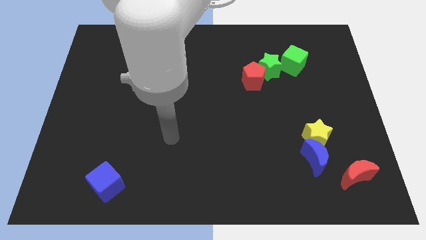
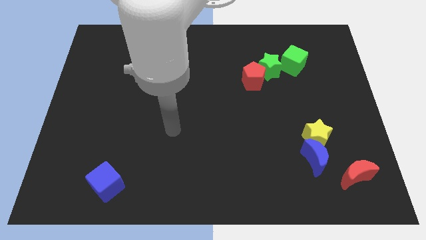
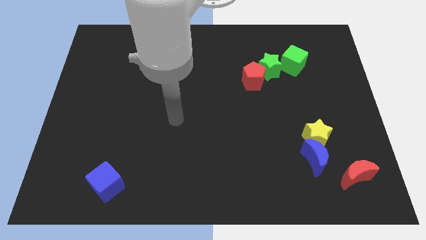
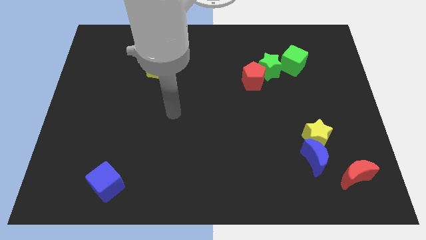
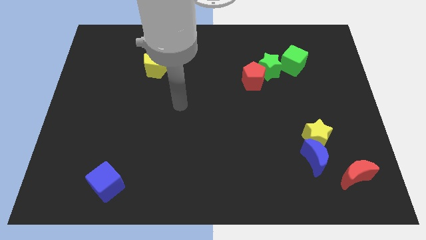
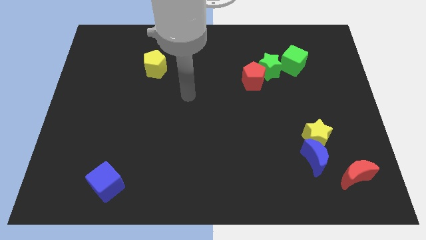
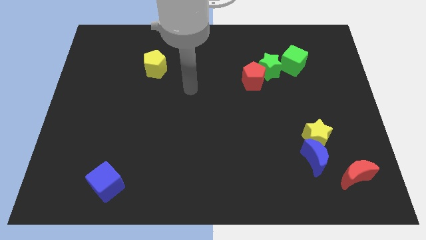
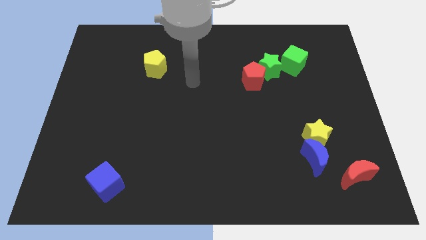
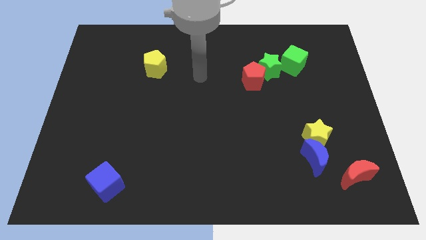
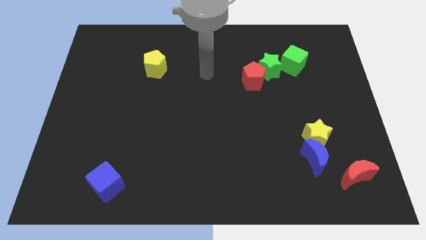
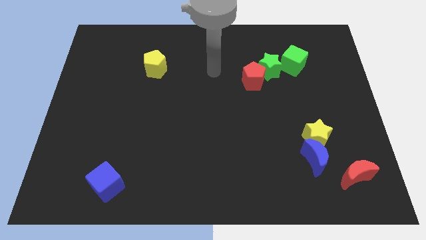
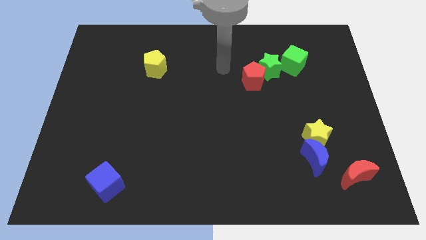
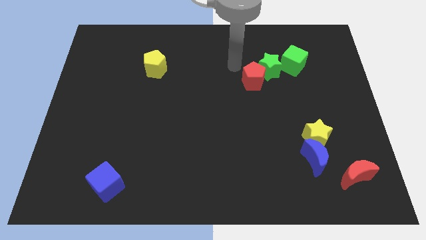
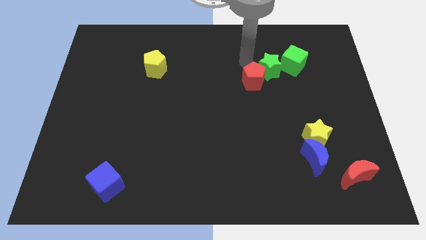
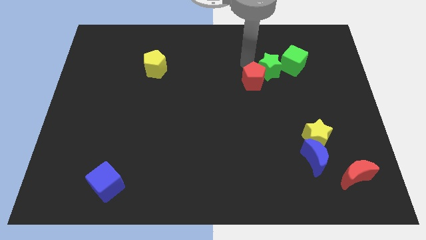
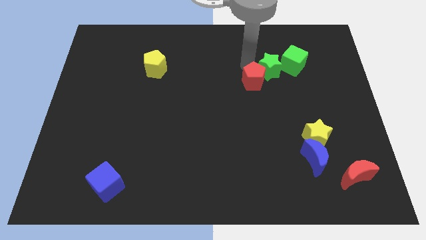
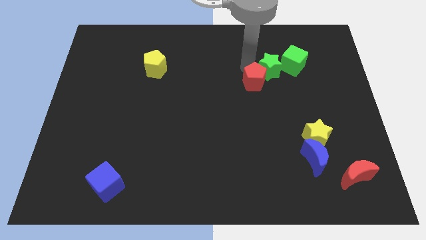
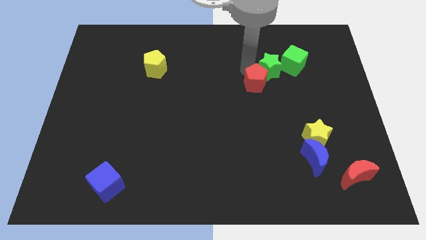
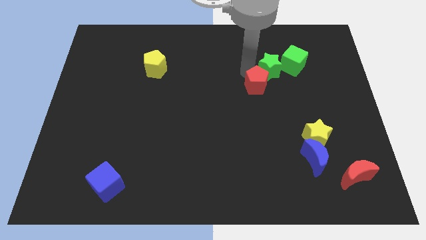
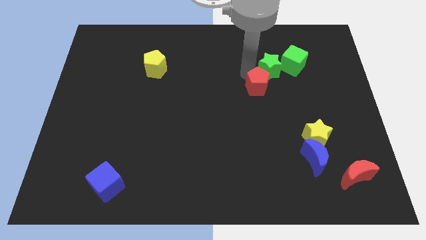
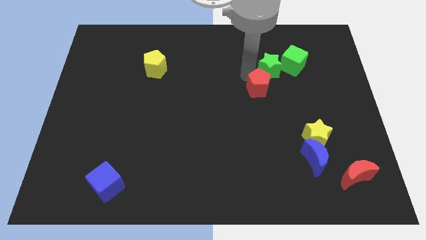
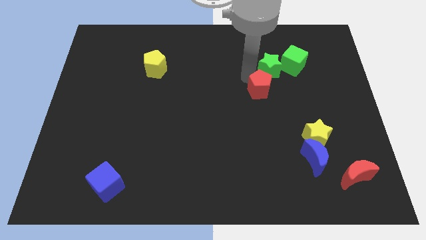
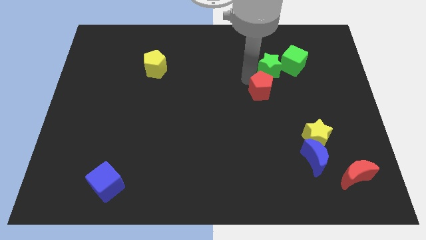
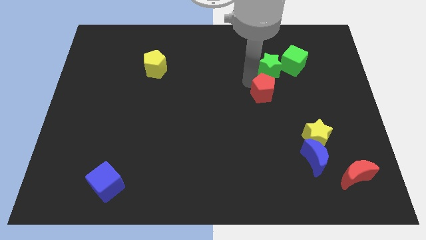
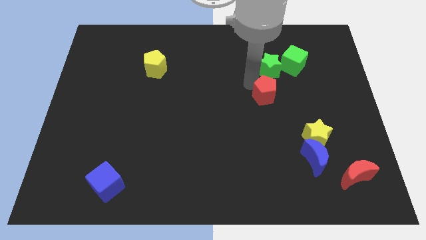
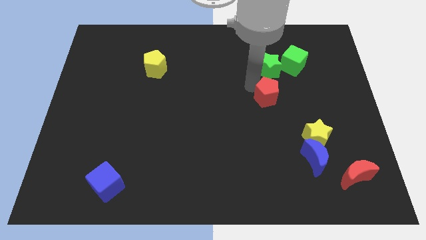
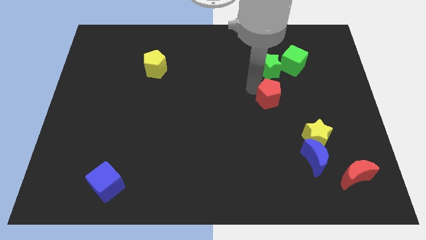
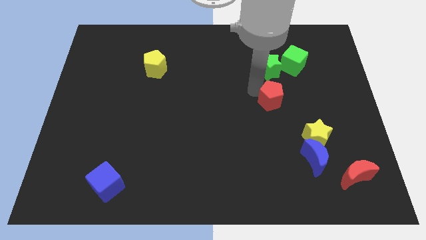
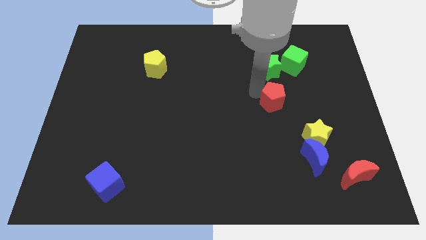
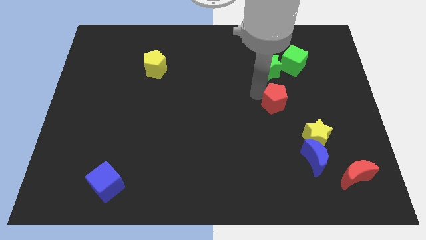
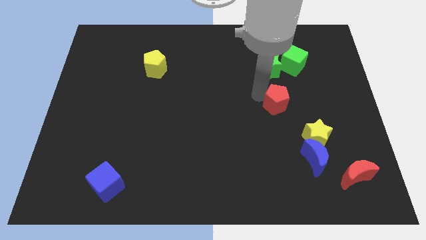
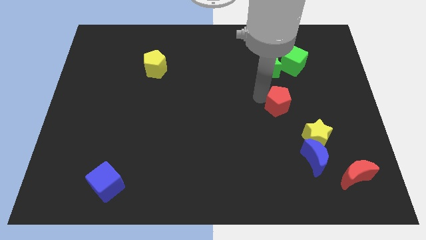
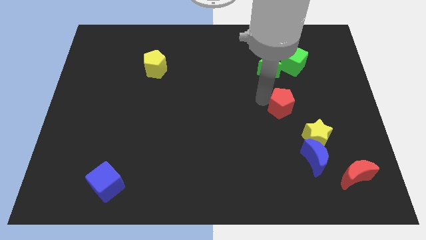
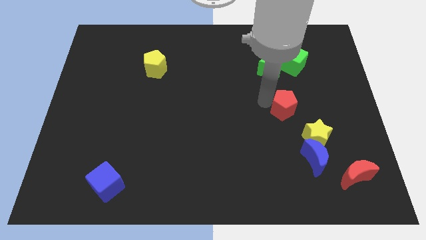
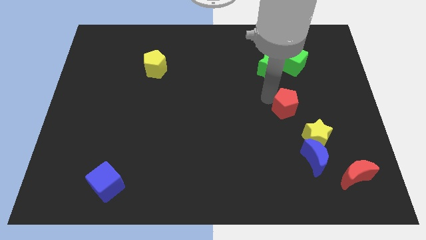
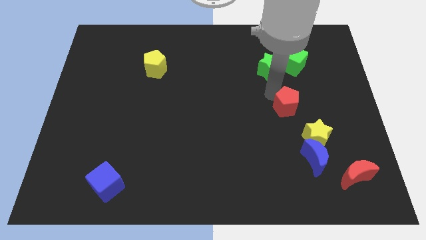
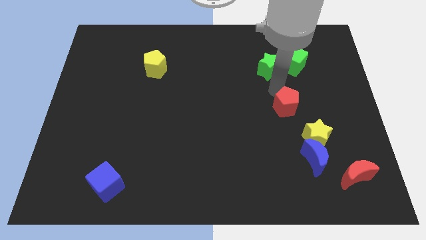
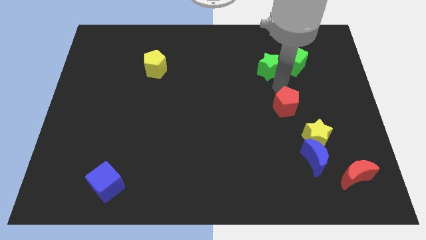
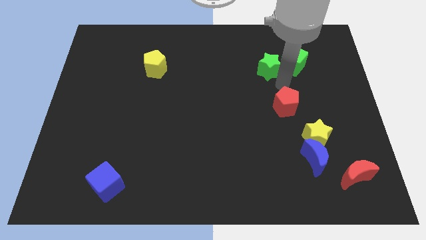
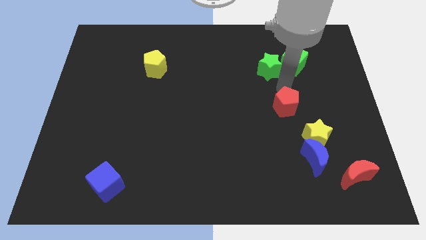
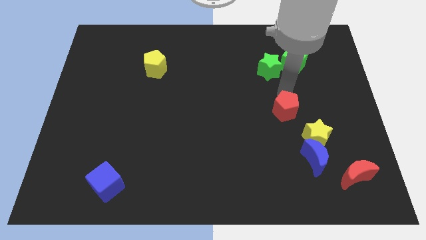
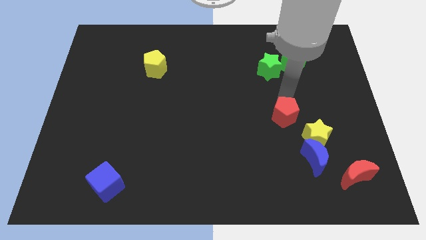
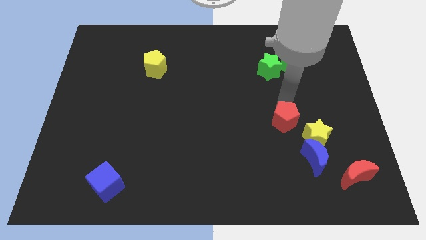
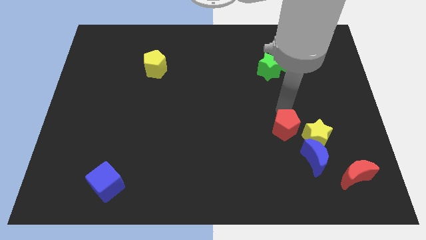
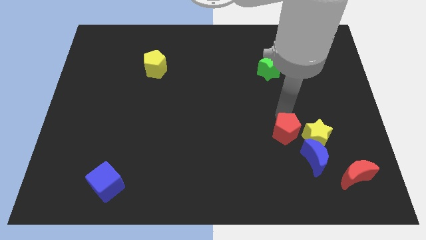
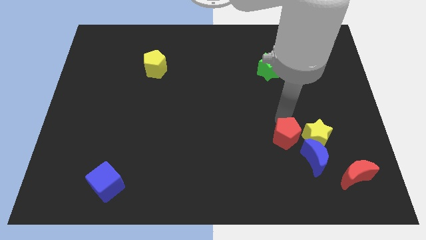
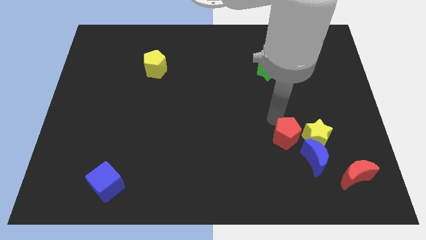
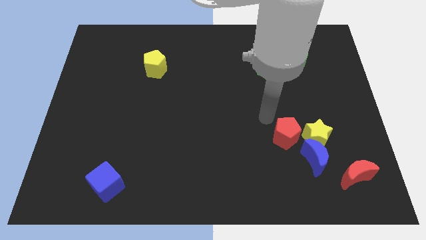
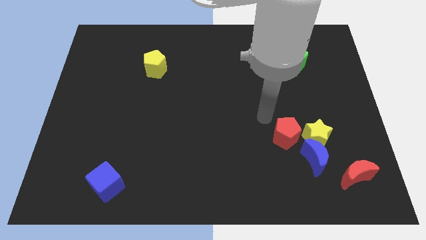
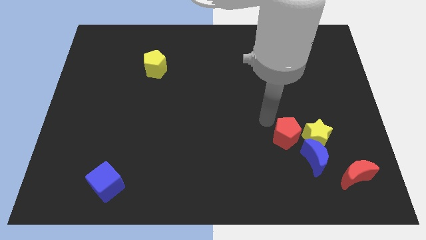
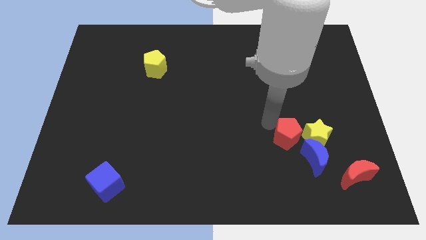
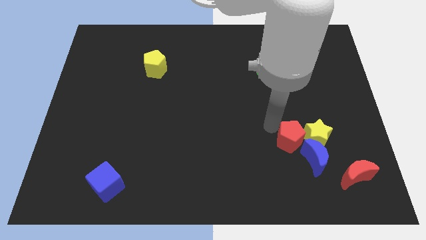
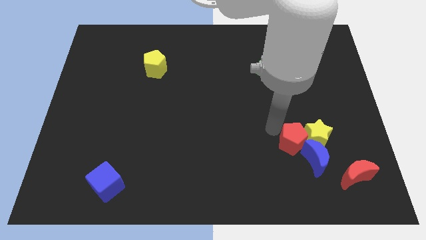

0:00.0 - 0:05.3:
slide the red pentagon next to the blue moon

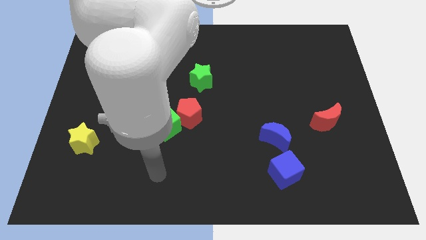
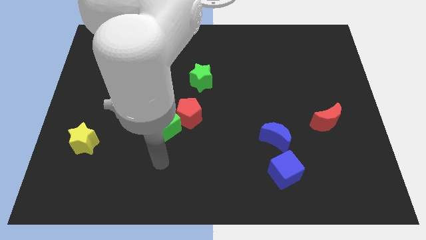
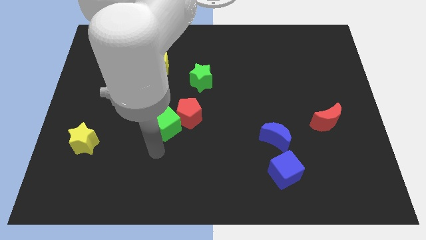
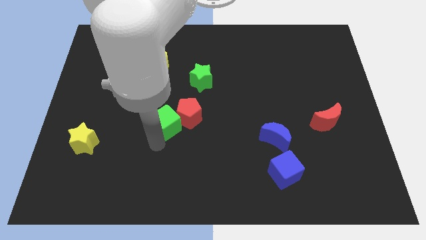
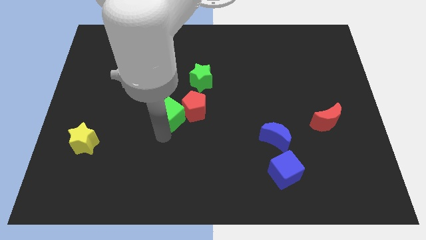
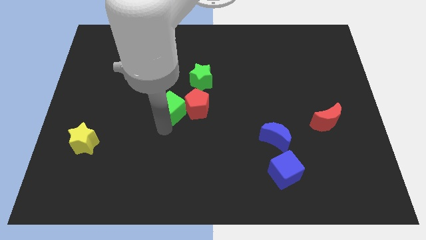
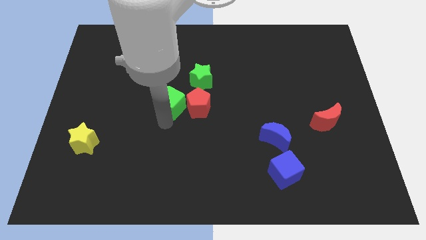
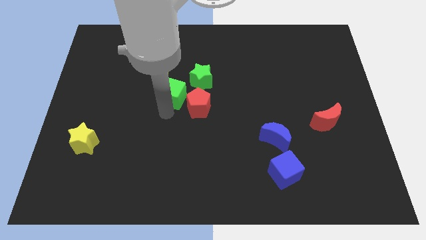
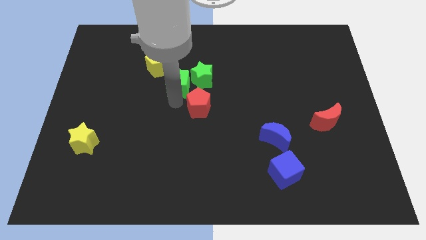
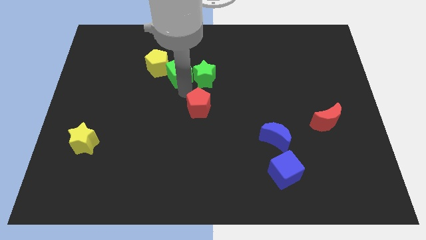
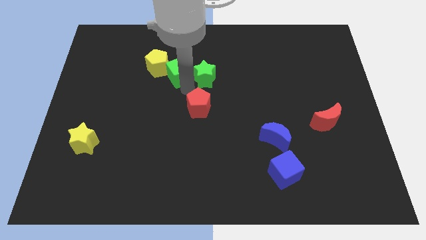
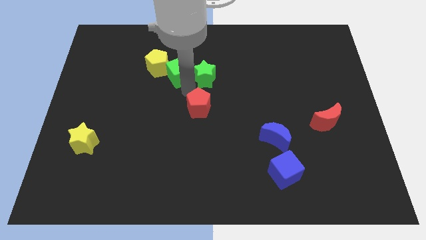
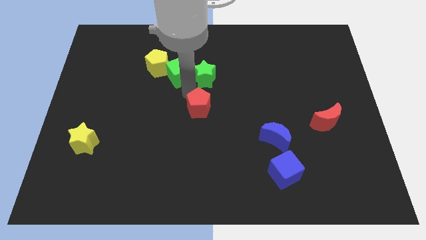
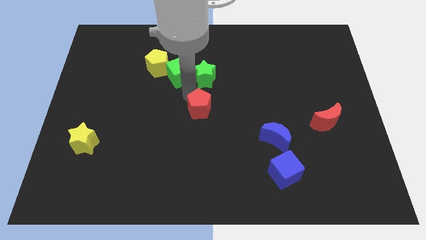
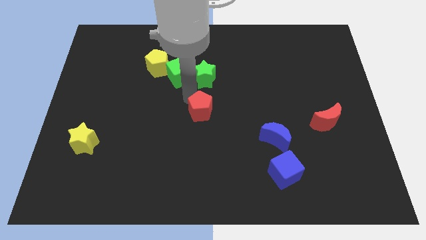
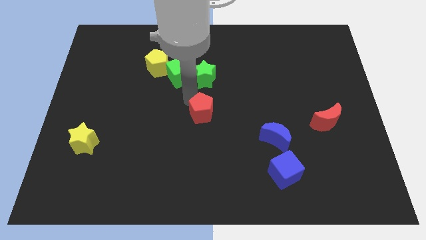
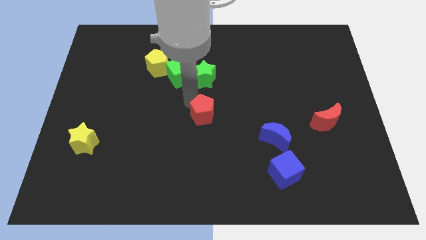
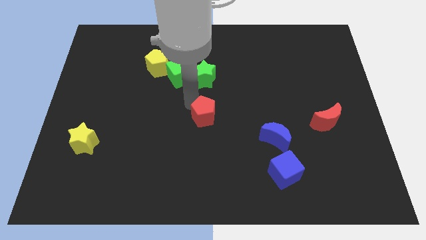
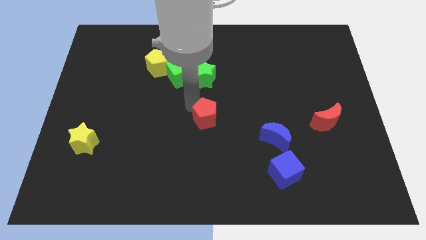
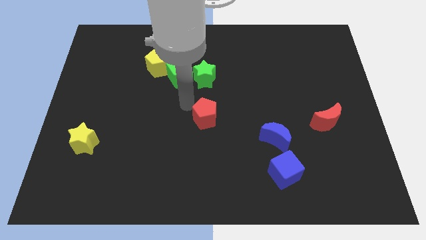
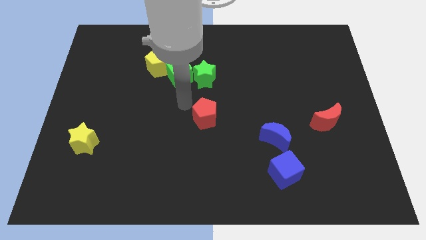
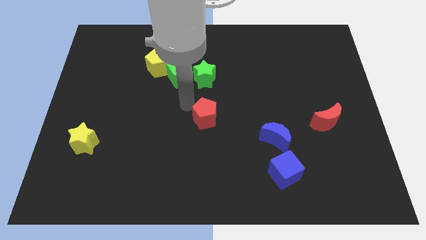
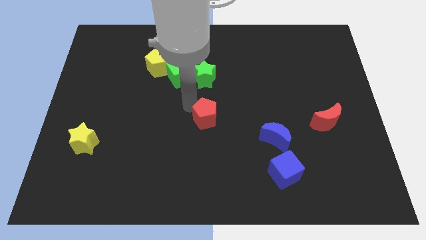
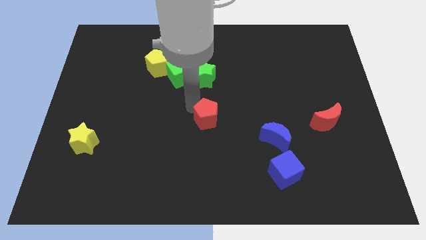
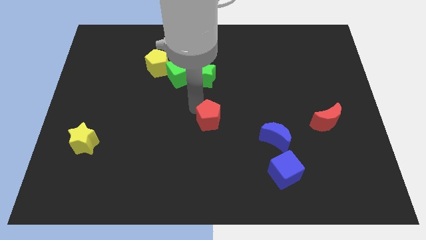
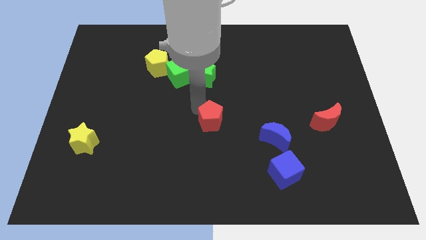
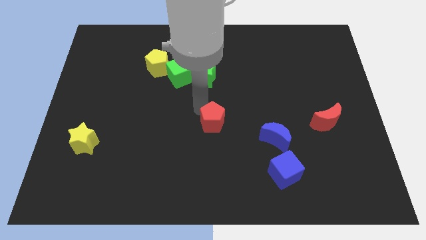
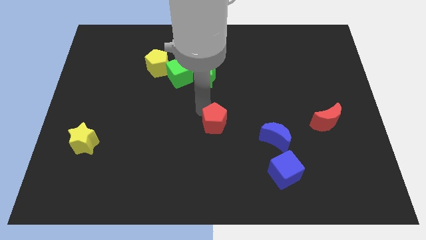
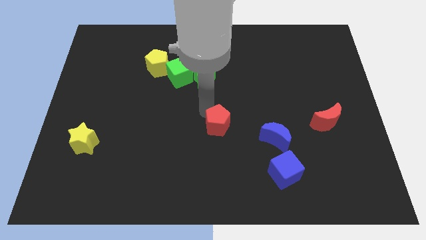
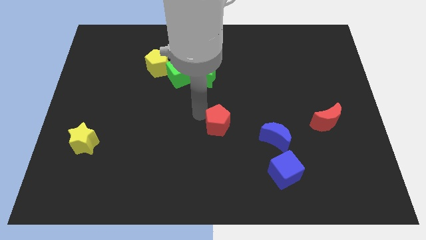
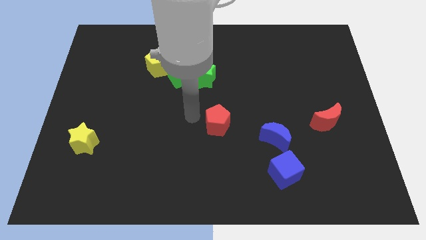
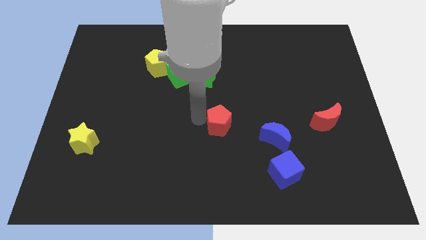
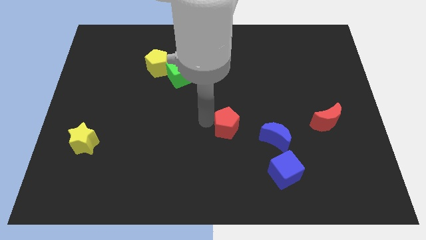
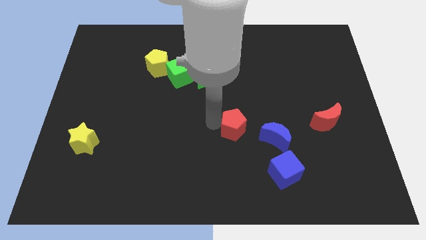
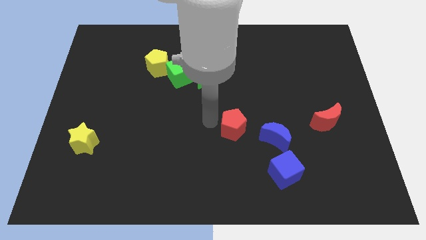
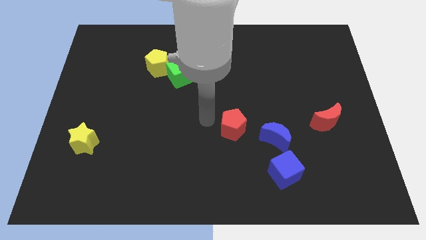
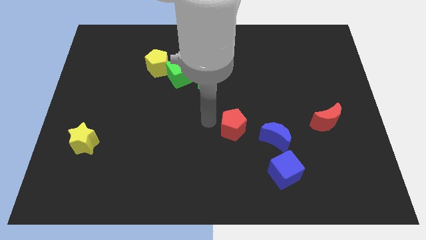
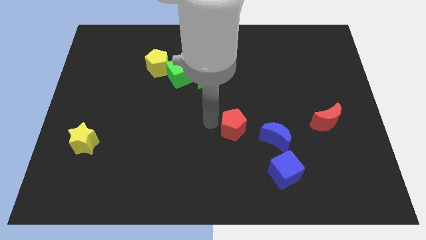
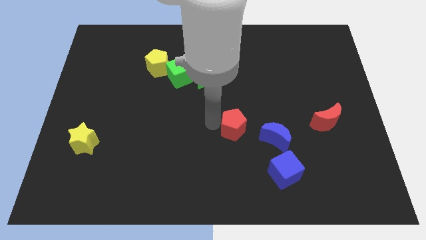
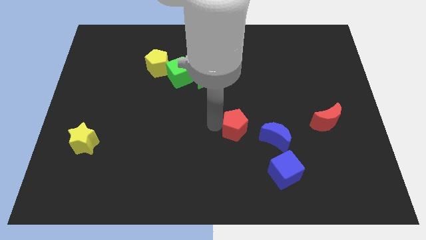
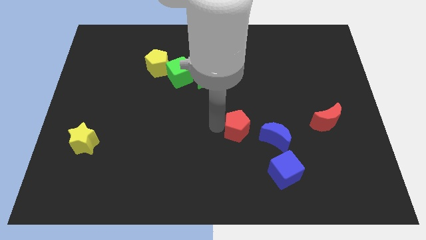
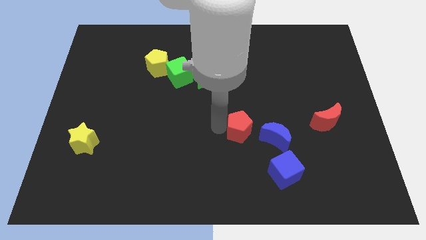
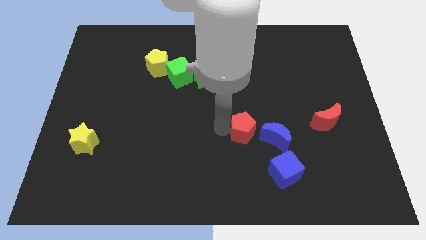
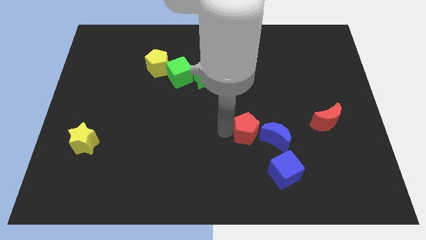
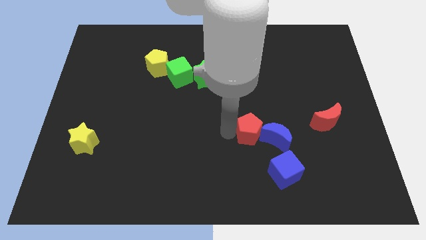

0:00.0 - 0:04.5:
move the red pentagon to the blue moon
